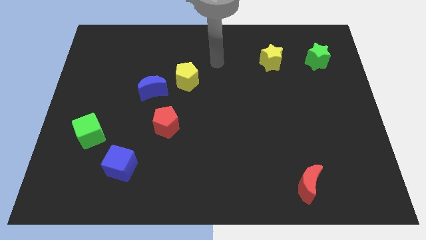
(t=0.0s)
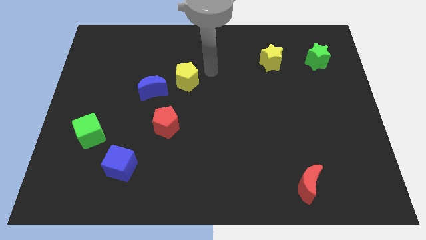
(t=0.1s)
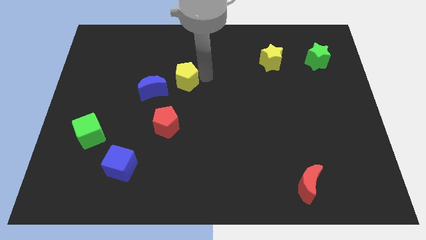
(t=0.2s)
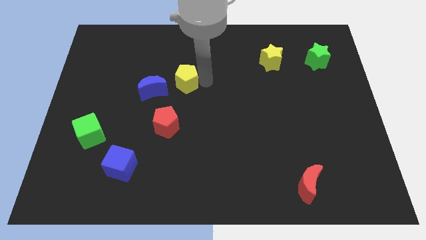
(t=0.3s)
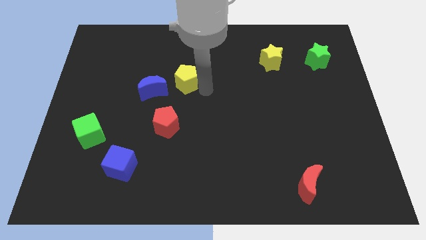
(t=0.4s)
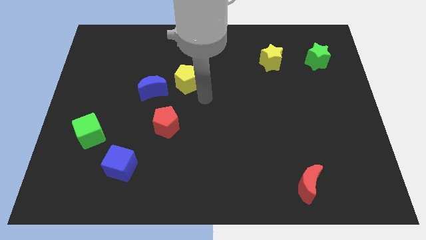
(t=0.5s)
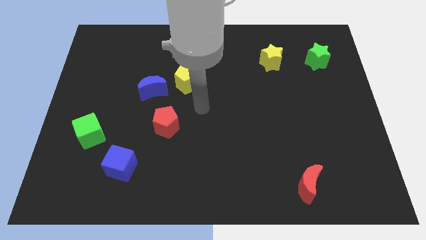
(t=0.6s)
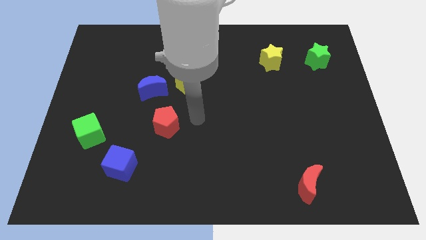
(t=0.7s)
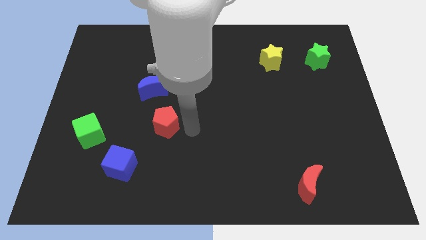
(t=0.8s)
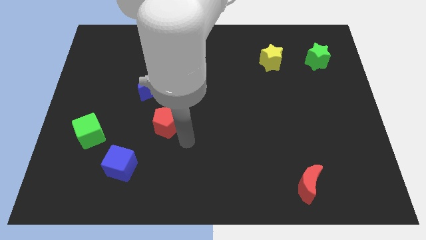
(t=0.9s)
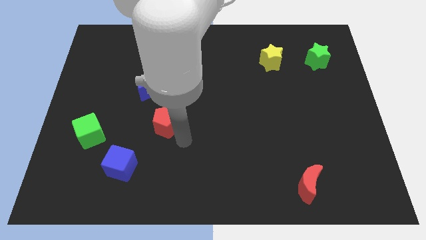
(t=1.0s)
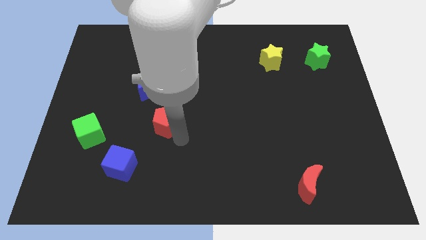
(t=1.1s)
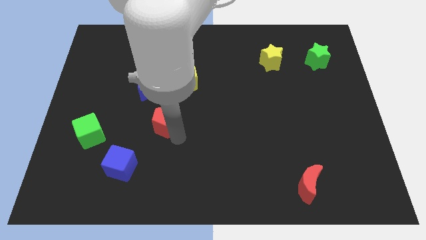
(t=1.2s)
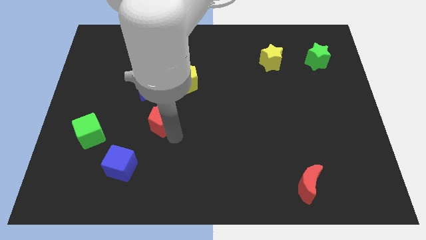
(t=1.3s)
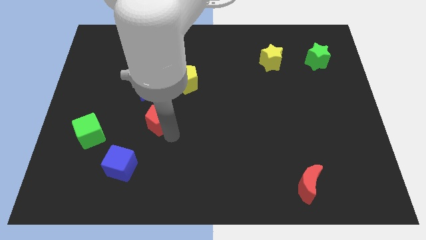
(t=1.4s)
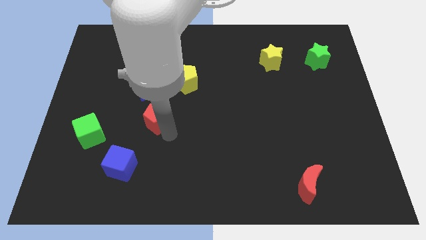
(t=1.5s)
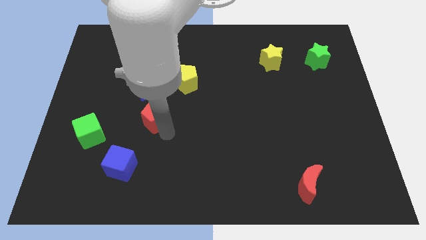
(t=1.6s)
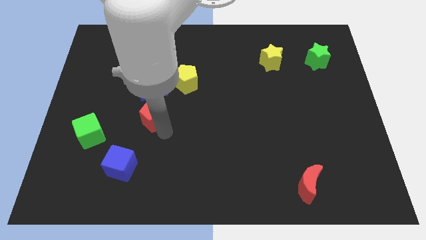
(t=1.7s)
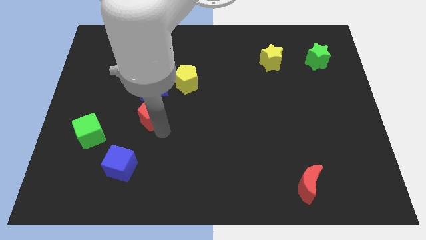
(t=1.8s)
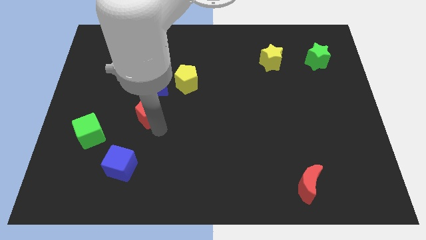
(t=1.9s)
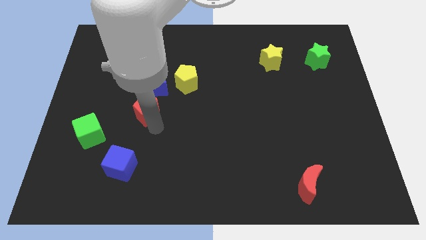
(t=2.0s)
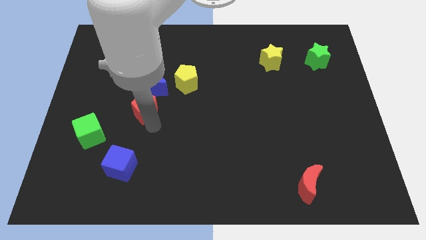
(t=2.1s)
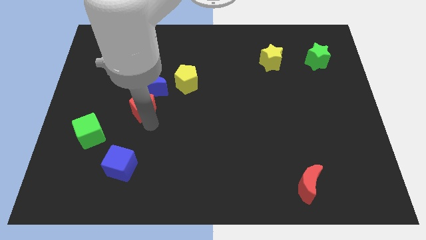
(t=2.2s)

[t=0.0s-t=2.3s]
push the red pentagon slightly up and then left

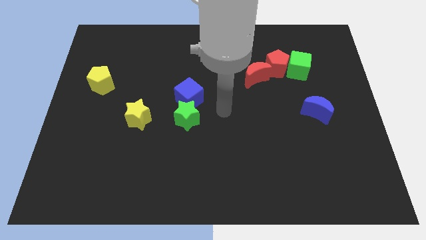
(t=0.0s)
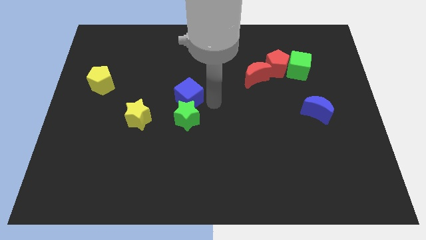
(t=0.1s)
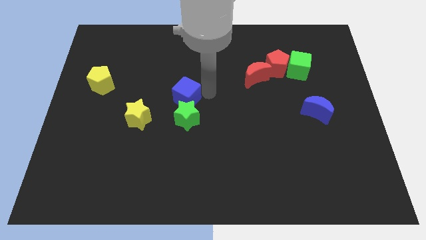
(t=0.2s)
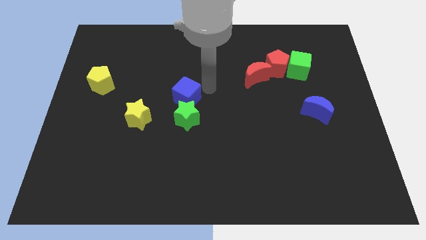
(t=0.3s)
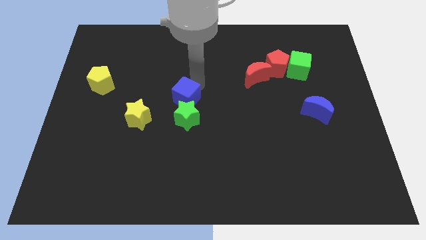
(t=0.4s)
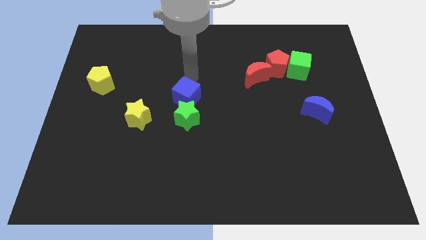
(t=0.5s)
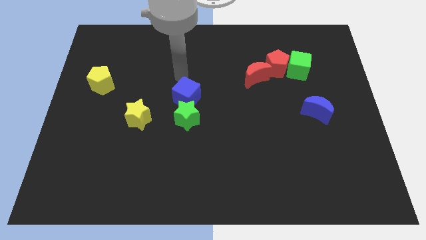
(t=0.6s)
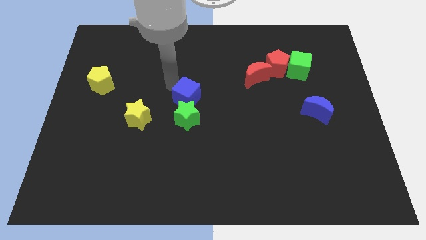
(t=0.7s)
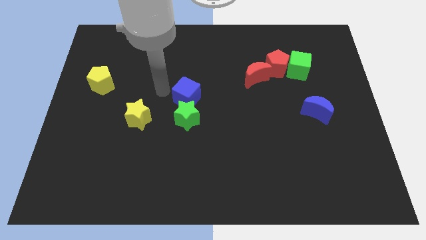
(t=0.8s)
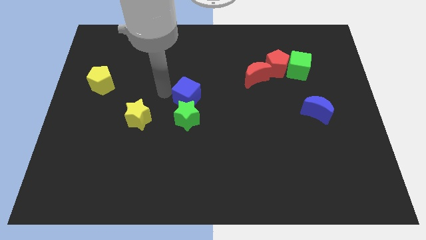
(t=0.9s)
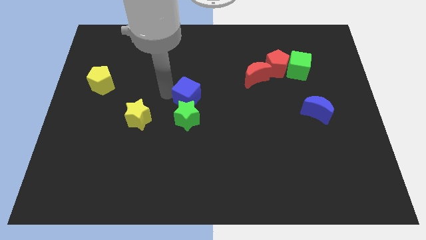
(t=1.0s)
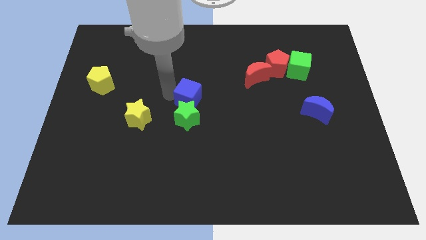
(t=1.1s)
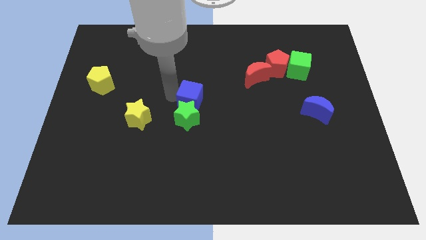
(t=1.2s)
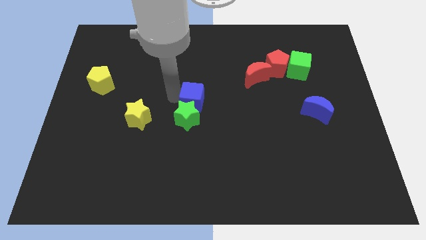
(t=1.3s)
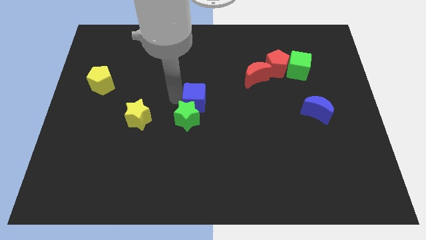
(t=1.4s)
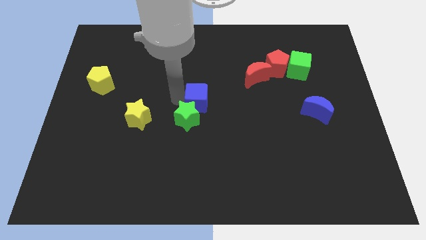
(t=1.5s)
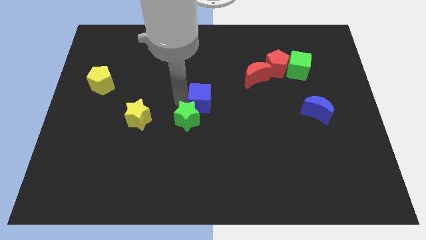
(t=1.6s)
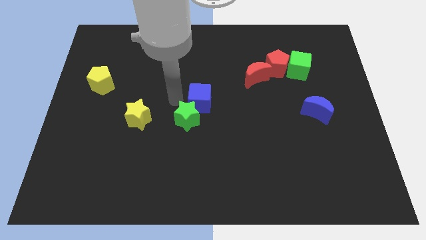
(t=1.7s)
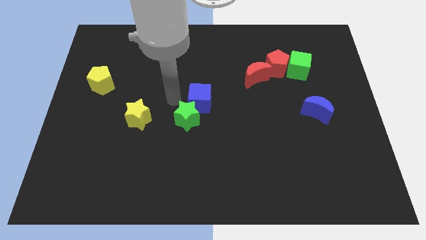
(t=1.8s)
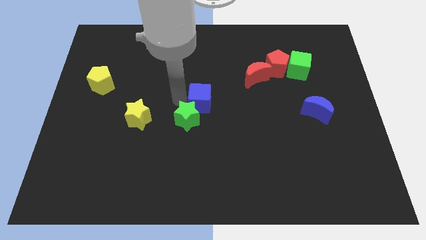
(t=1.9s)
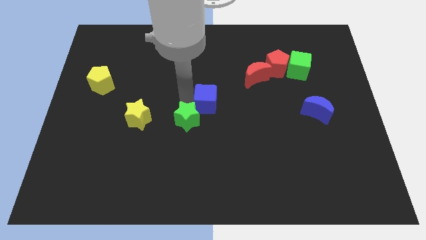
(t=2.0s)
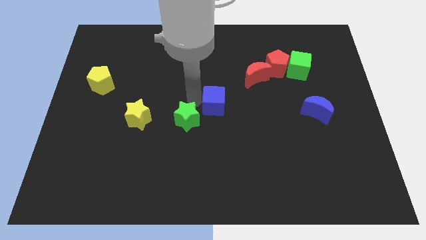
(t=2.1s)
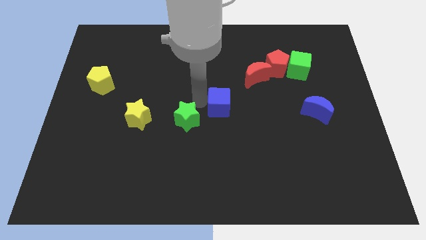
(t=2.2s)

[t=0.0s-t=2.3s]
slide the blue cube somewhat right

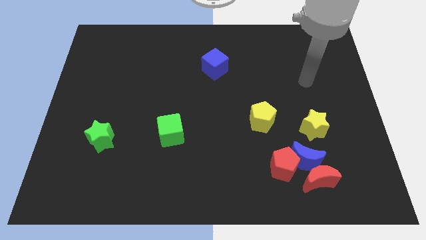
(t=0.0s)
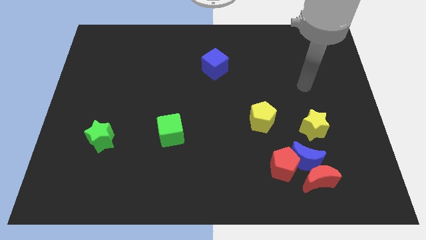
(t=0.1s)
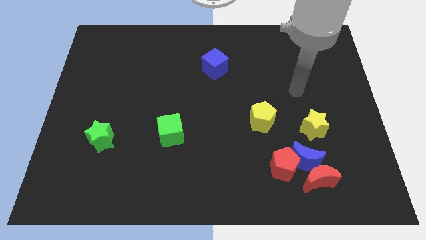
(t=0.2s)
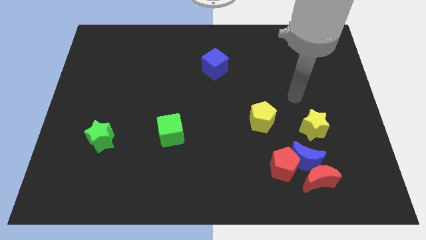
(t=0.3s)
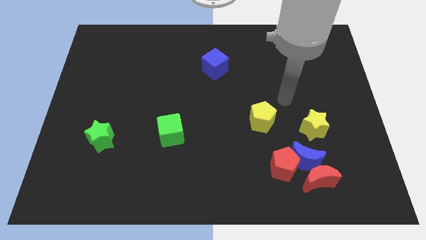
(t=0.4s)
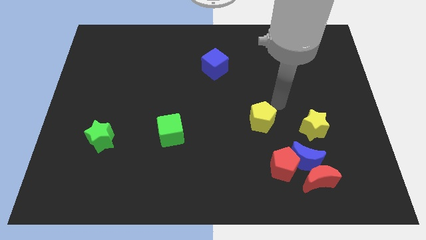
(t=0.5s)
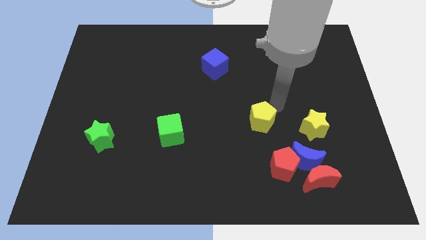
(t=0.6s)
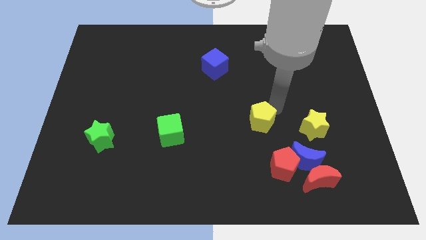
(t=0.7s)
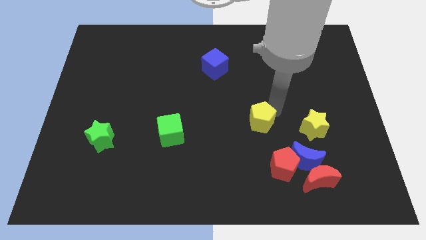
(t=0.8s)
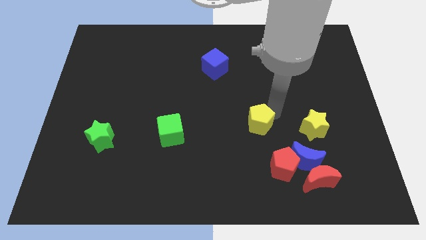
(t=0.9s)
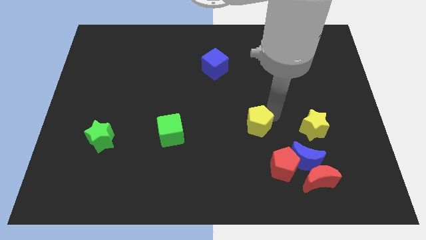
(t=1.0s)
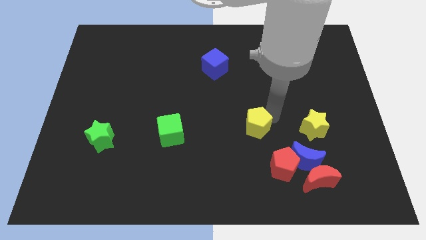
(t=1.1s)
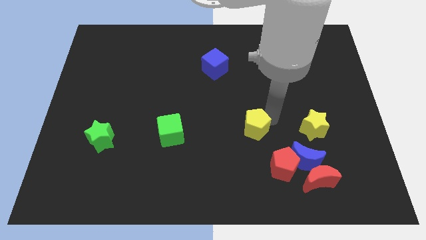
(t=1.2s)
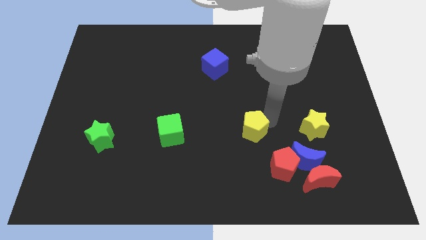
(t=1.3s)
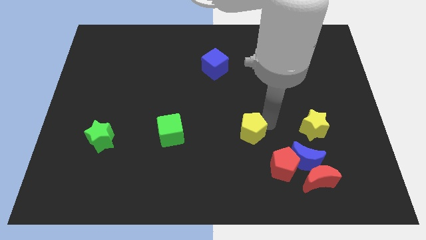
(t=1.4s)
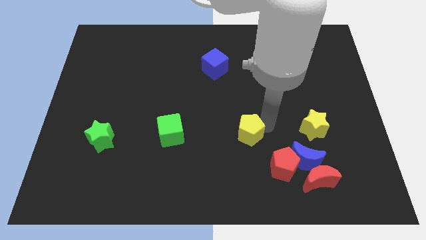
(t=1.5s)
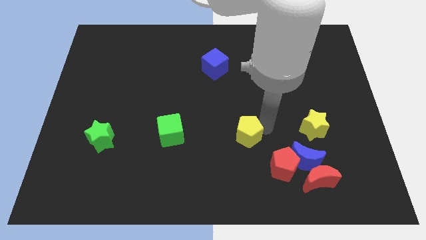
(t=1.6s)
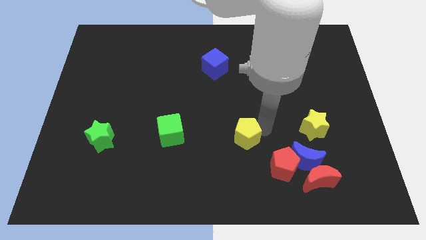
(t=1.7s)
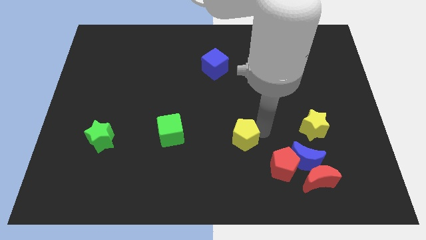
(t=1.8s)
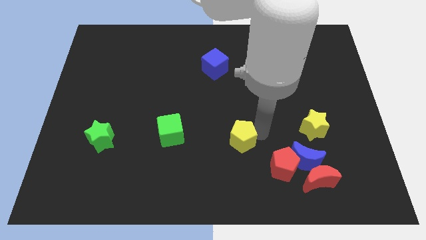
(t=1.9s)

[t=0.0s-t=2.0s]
slide the yellow pentagon slightly down and to the left diagonally

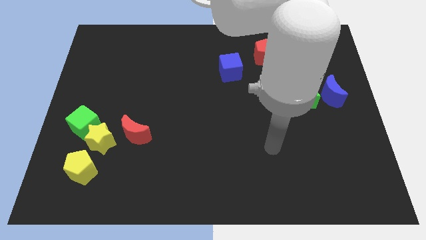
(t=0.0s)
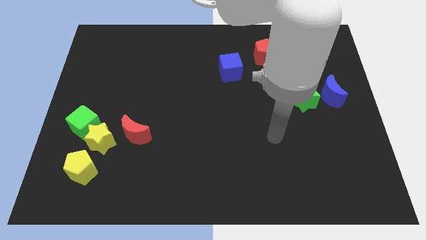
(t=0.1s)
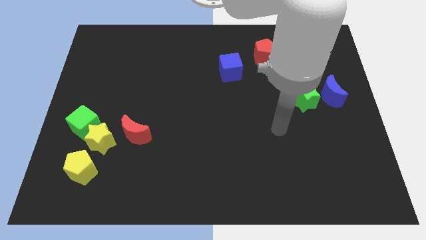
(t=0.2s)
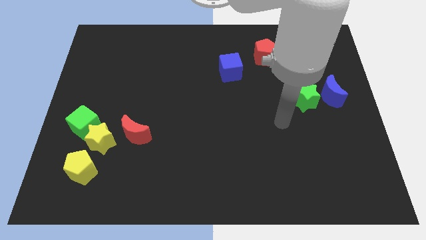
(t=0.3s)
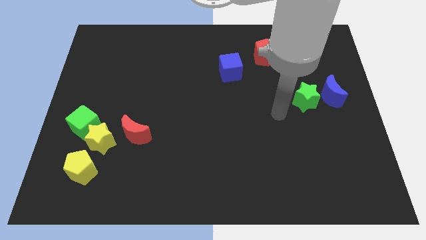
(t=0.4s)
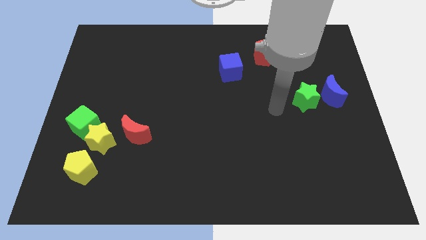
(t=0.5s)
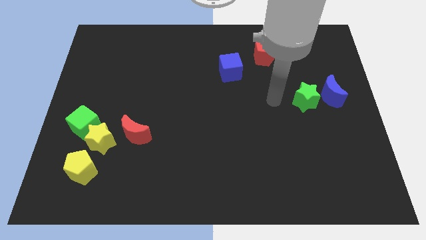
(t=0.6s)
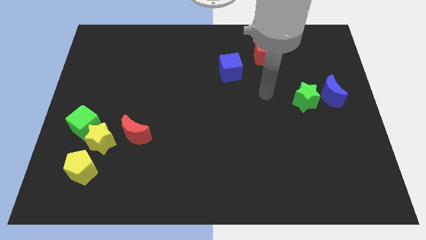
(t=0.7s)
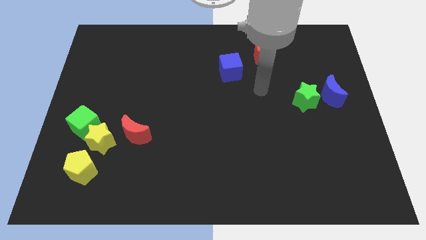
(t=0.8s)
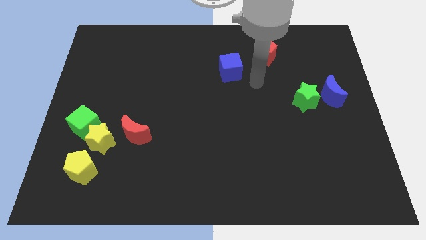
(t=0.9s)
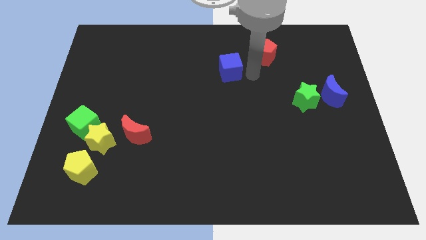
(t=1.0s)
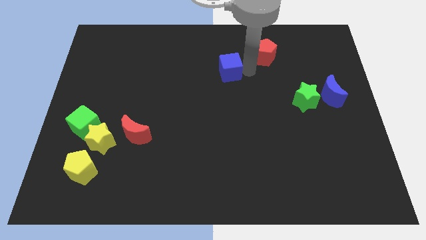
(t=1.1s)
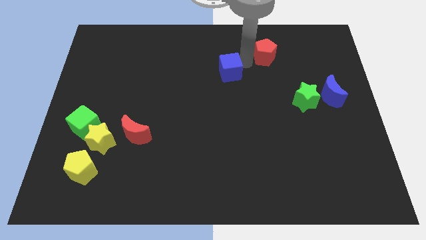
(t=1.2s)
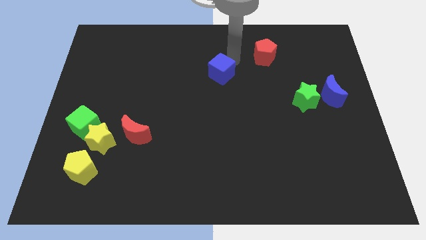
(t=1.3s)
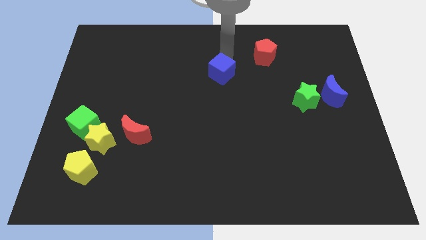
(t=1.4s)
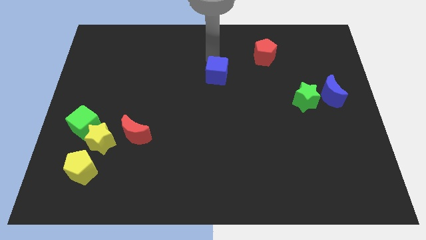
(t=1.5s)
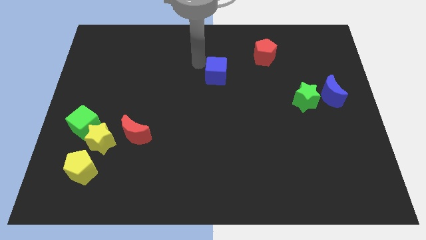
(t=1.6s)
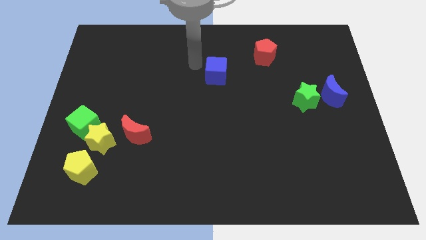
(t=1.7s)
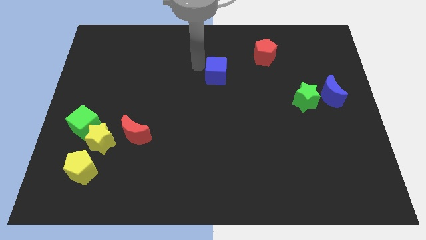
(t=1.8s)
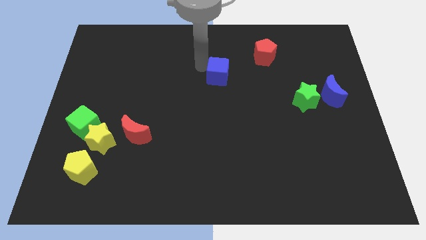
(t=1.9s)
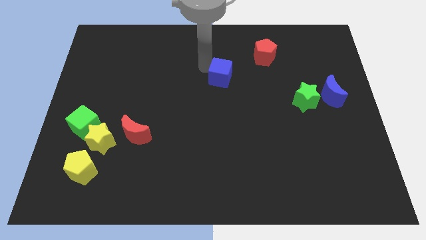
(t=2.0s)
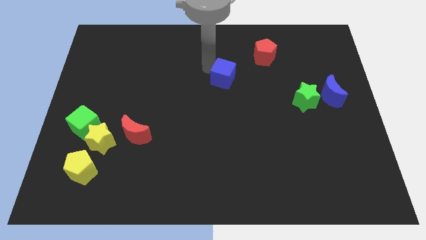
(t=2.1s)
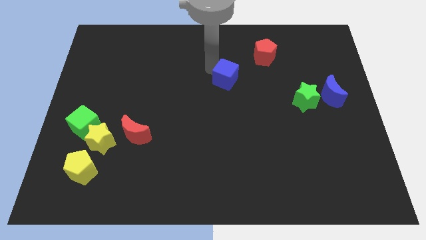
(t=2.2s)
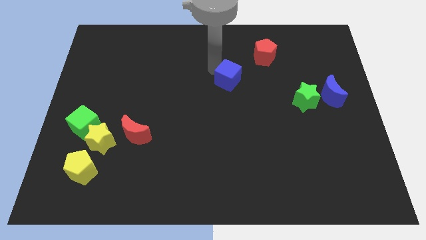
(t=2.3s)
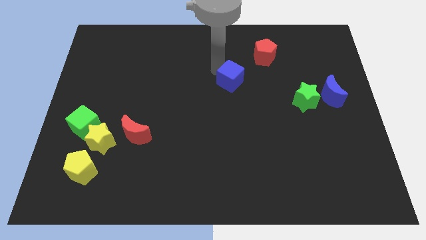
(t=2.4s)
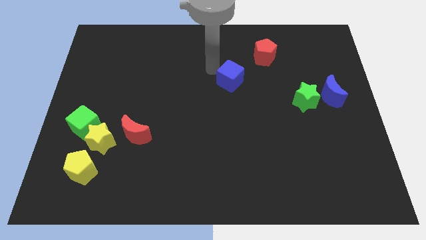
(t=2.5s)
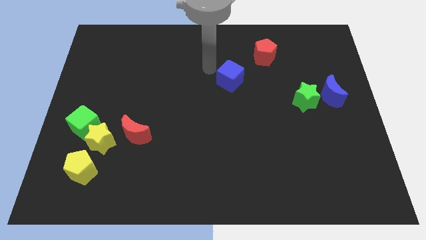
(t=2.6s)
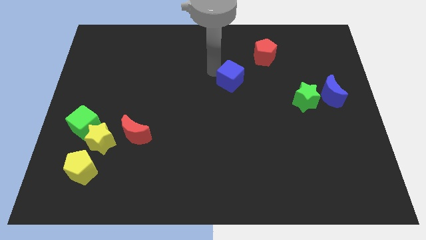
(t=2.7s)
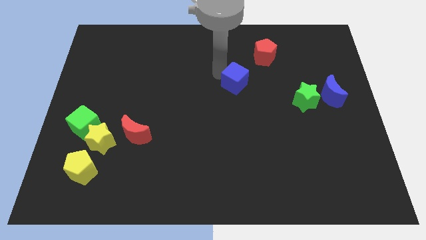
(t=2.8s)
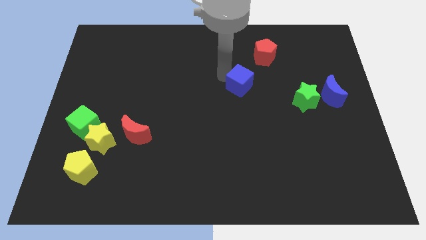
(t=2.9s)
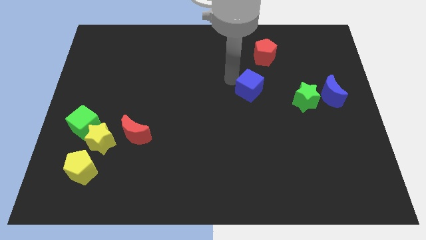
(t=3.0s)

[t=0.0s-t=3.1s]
move the blue cube a little bit down and then to the right
